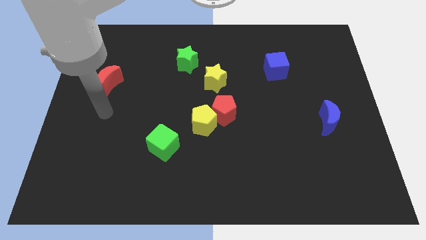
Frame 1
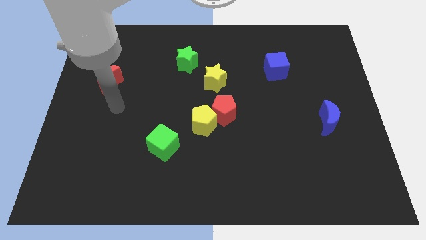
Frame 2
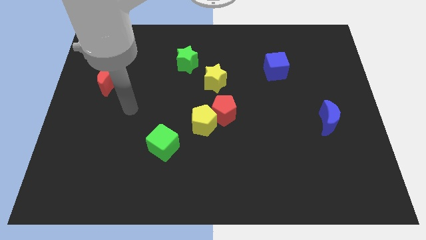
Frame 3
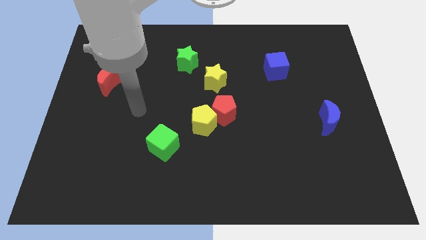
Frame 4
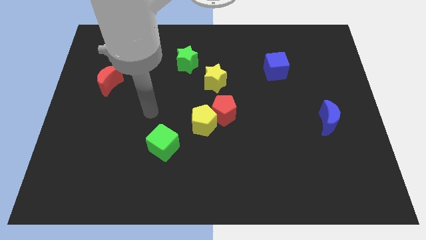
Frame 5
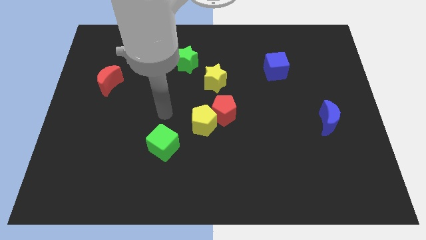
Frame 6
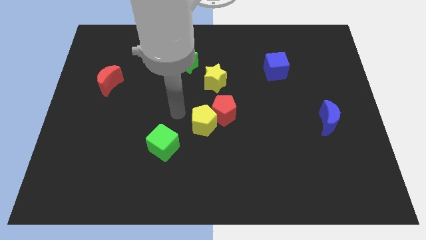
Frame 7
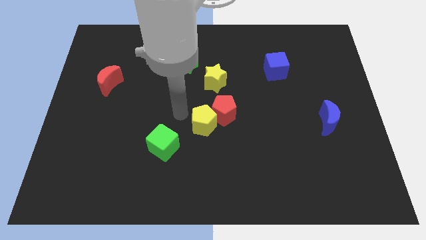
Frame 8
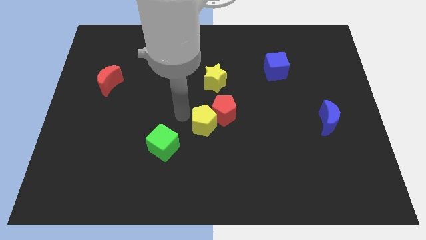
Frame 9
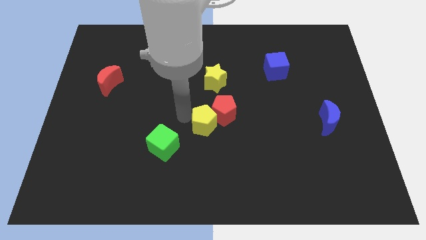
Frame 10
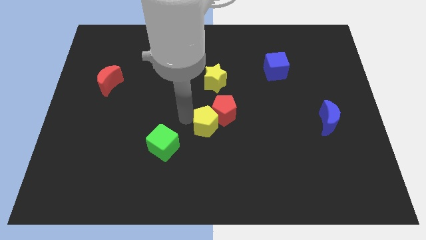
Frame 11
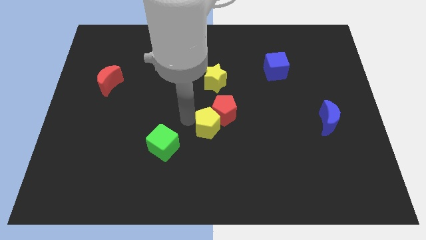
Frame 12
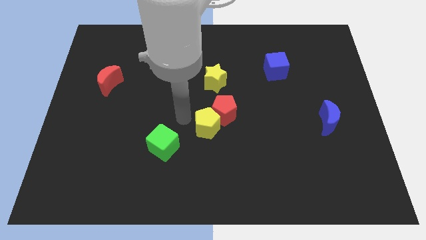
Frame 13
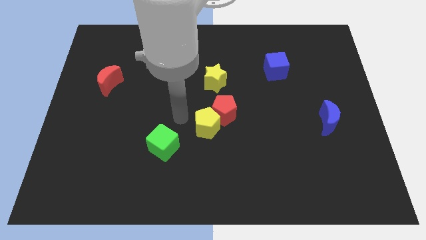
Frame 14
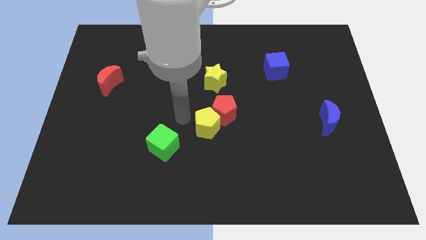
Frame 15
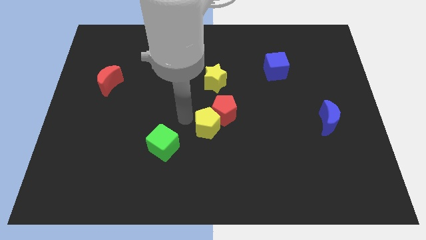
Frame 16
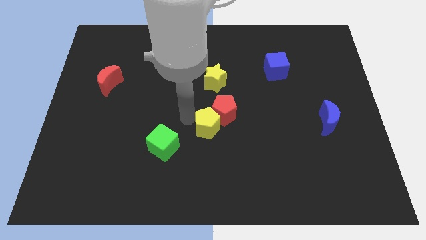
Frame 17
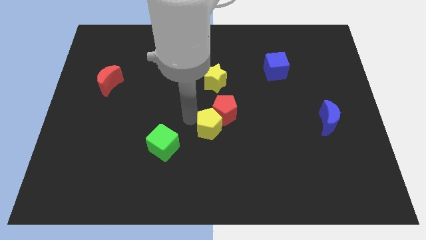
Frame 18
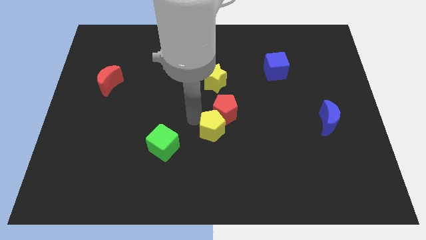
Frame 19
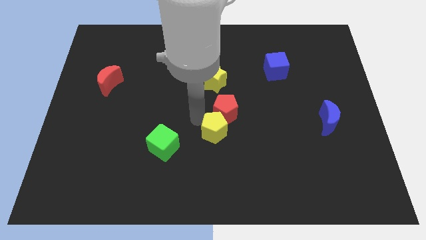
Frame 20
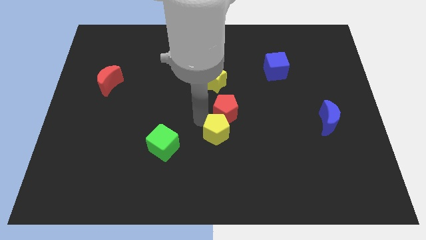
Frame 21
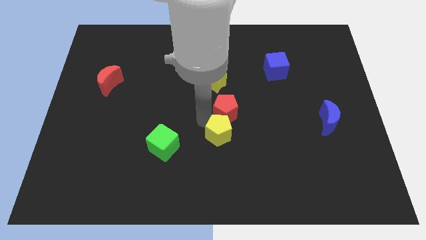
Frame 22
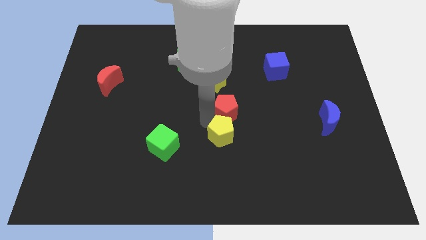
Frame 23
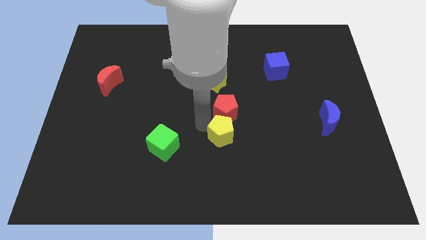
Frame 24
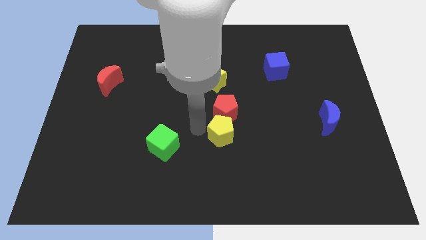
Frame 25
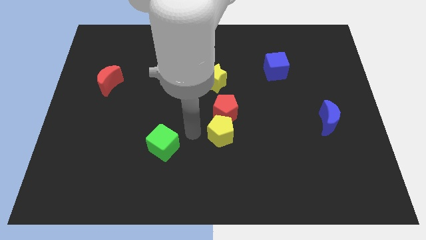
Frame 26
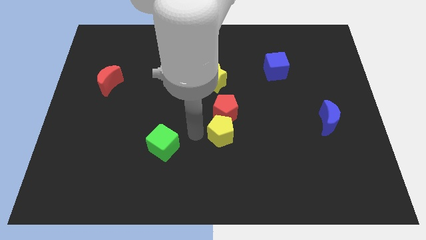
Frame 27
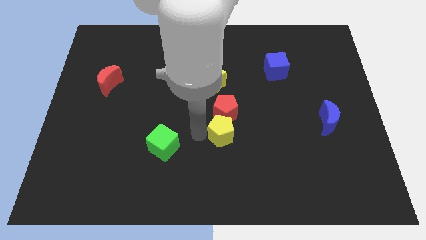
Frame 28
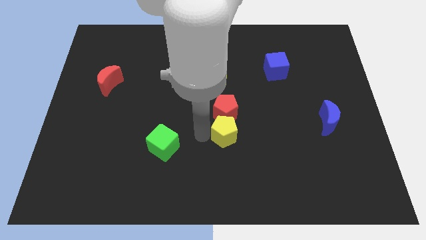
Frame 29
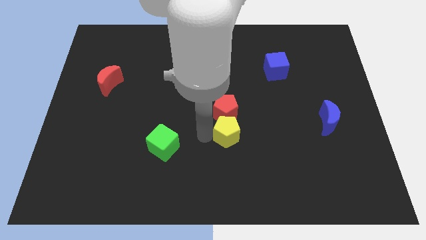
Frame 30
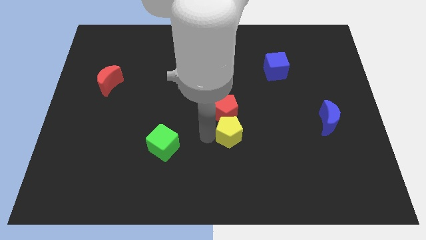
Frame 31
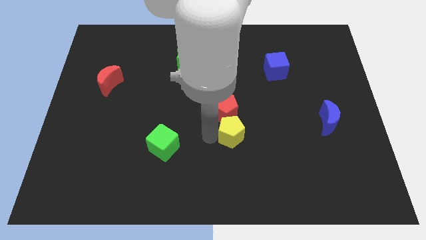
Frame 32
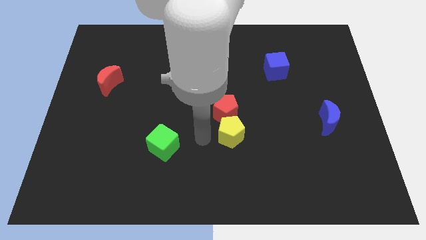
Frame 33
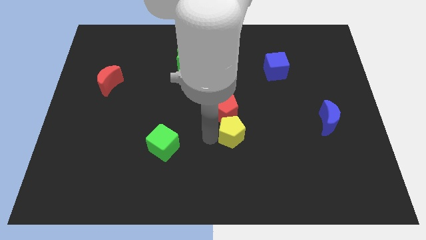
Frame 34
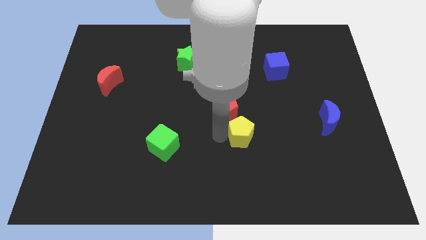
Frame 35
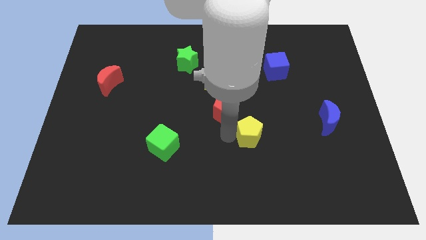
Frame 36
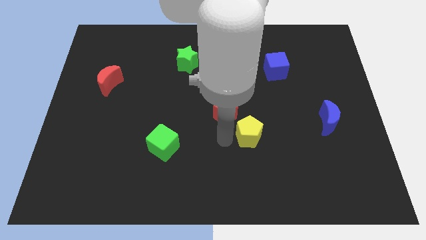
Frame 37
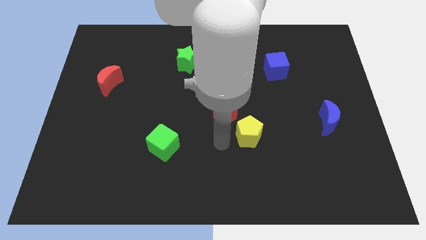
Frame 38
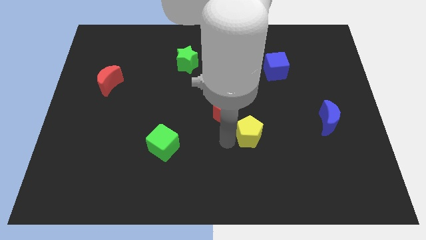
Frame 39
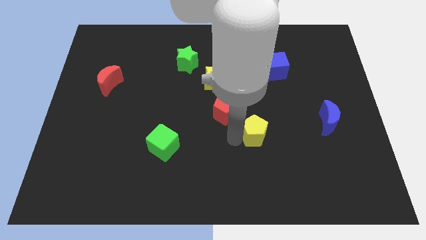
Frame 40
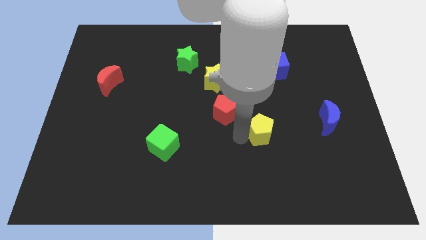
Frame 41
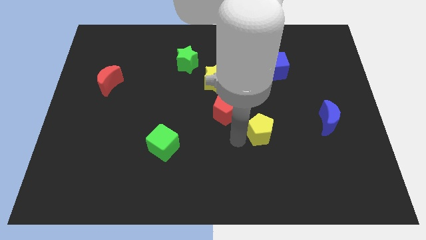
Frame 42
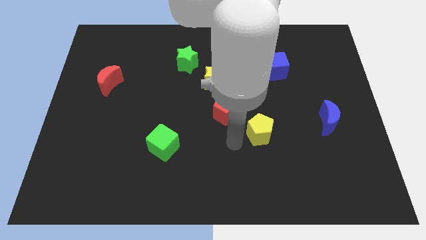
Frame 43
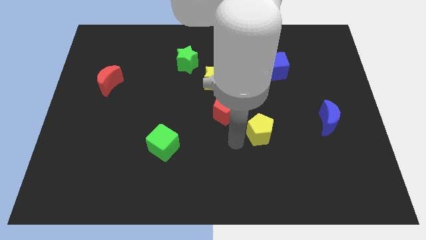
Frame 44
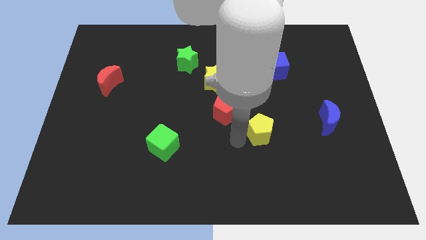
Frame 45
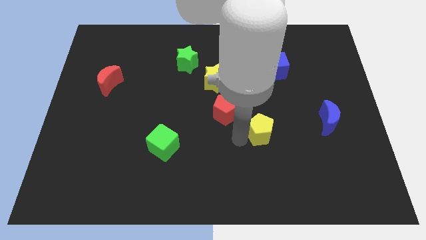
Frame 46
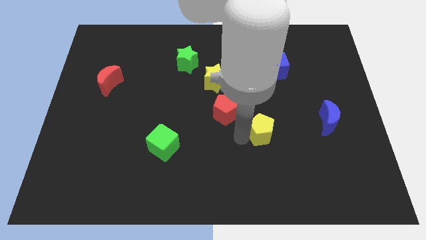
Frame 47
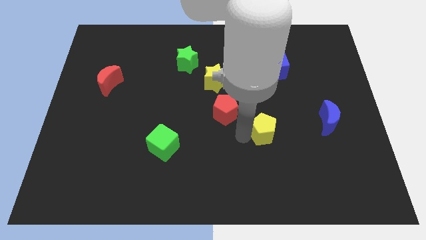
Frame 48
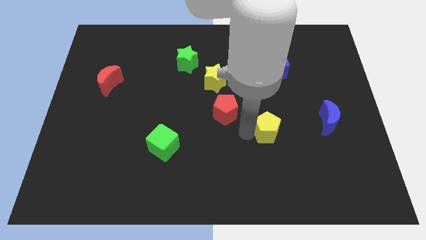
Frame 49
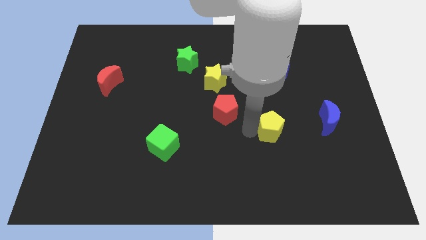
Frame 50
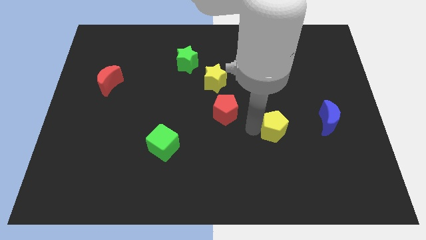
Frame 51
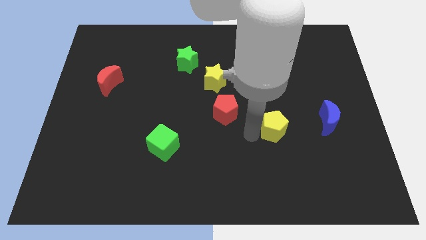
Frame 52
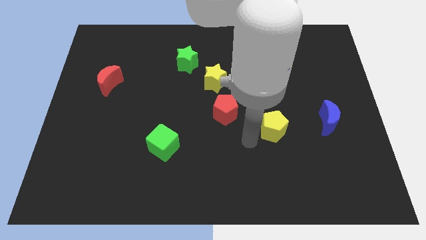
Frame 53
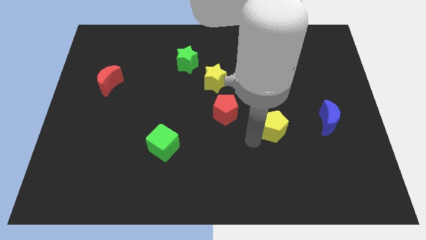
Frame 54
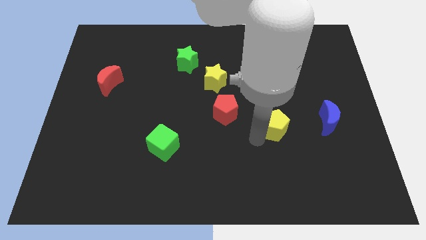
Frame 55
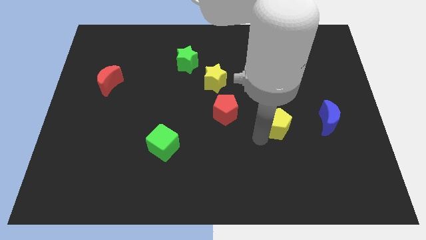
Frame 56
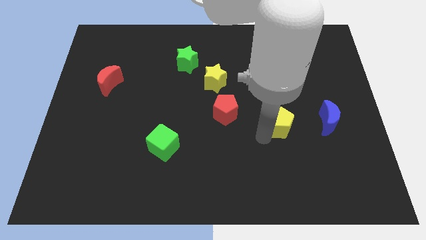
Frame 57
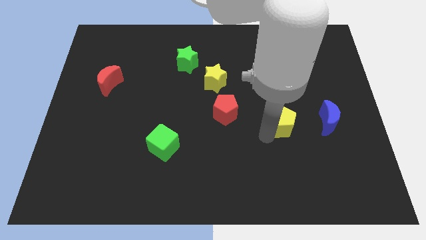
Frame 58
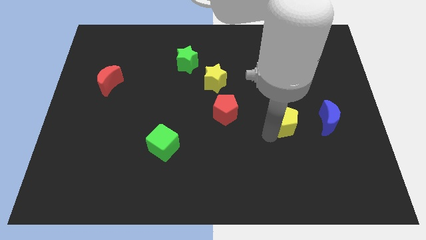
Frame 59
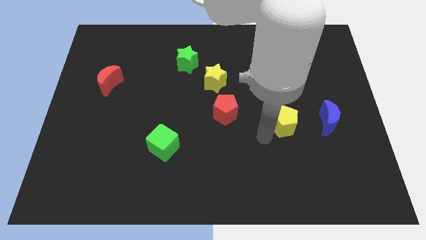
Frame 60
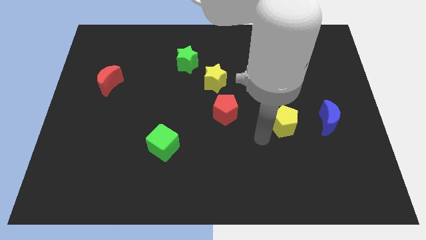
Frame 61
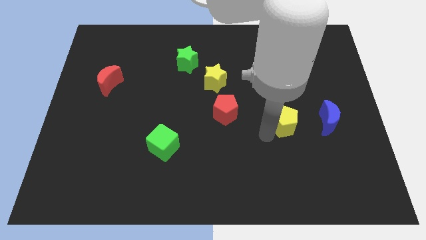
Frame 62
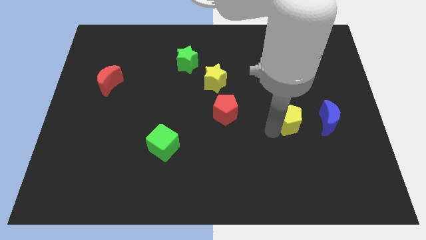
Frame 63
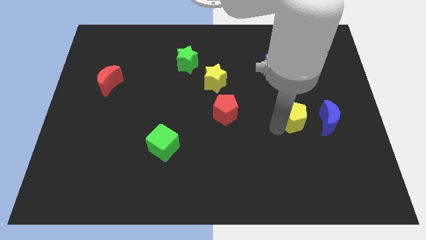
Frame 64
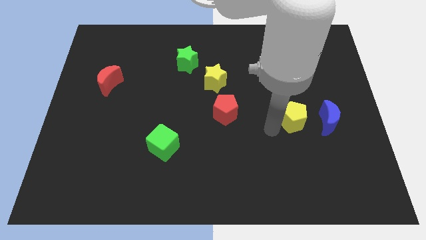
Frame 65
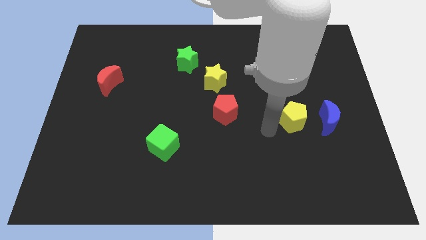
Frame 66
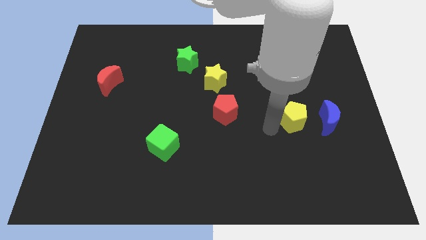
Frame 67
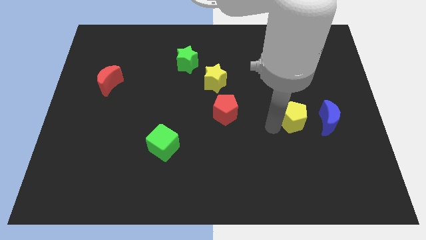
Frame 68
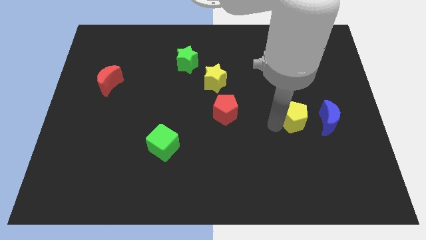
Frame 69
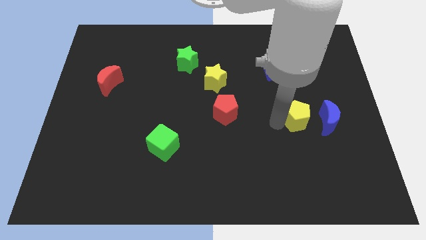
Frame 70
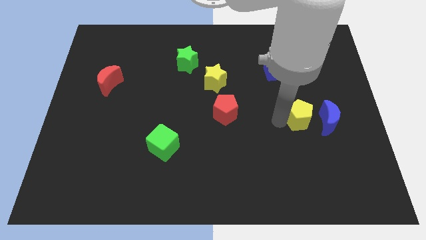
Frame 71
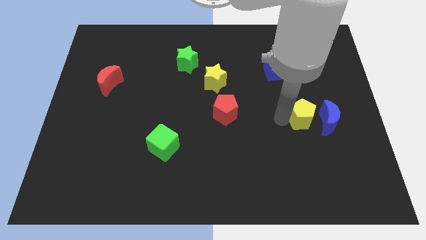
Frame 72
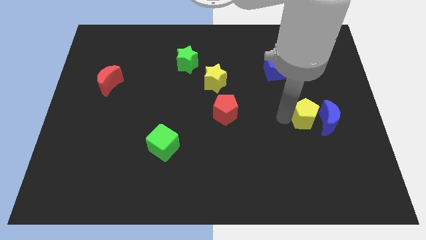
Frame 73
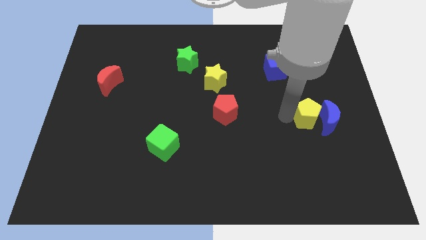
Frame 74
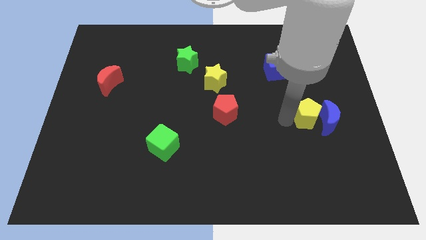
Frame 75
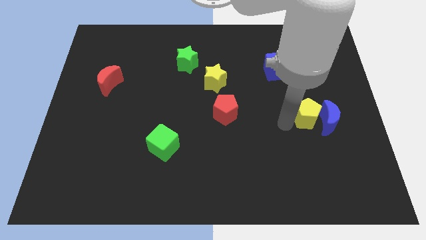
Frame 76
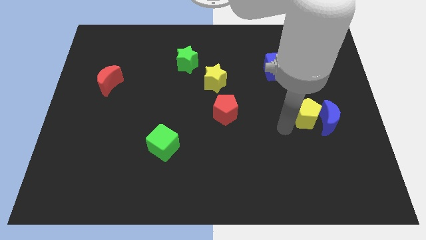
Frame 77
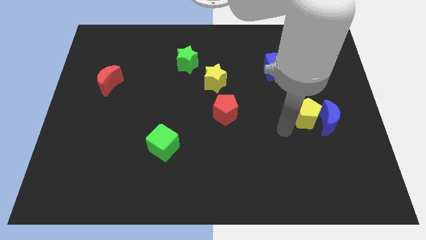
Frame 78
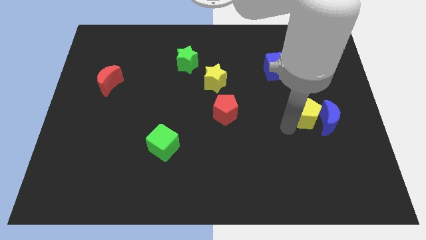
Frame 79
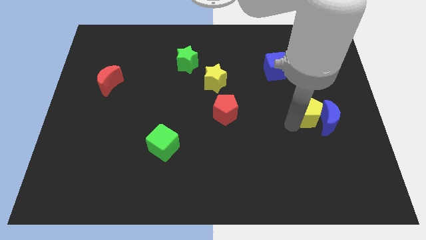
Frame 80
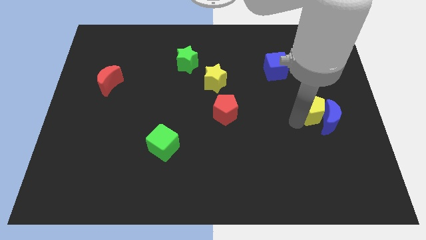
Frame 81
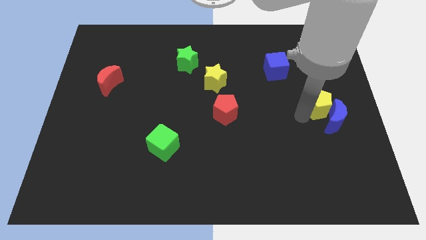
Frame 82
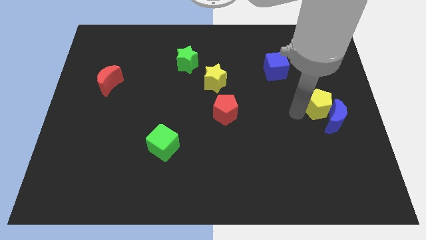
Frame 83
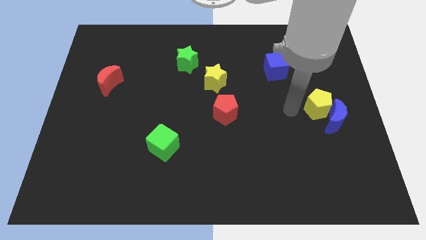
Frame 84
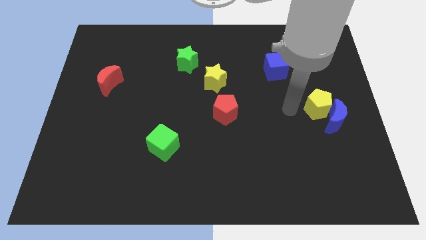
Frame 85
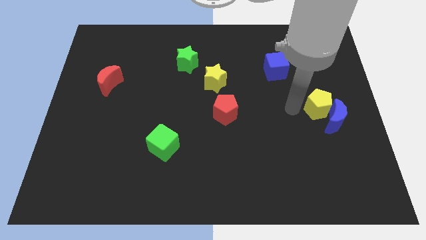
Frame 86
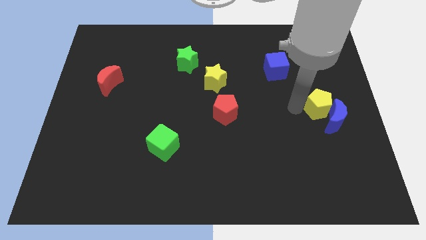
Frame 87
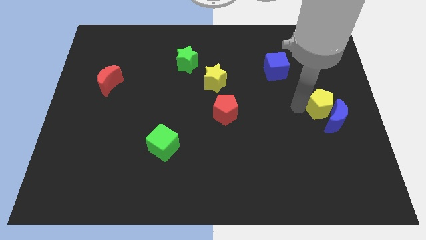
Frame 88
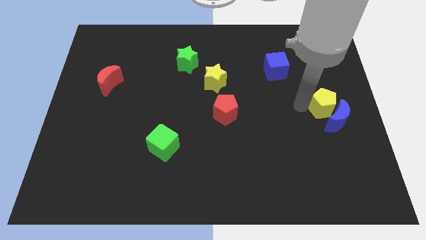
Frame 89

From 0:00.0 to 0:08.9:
put the yellow pentagon to the center right
